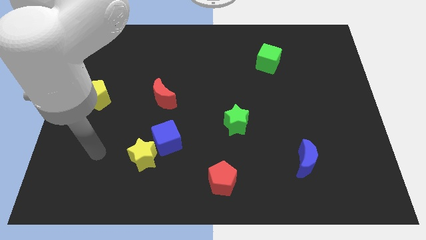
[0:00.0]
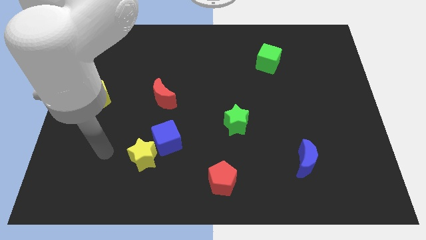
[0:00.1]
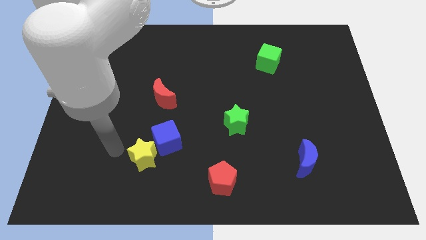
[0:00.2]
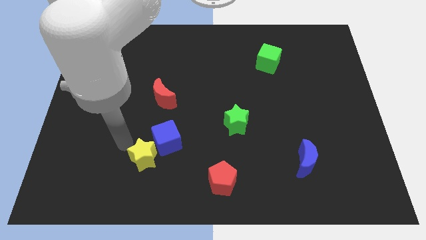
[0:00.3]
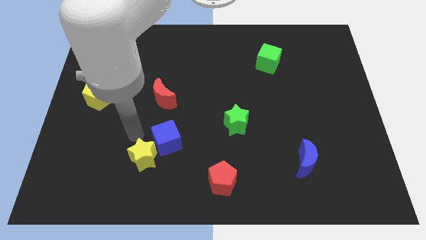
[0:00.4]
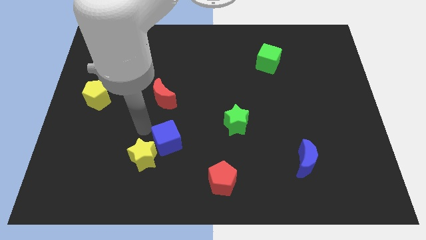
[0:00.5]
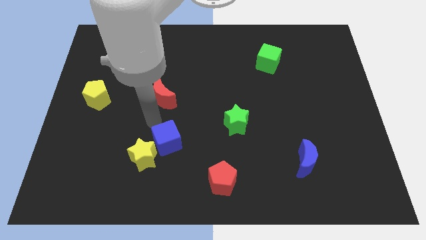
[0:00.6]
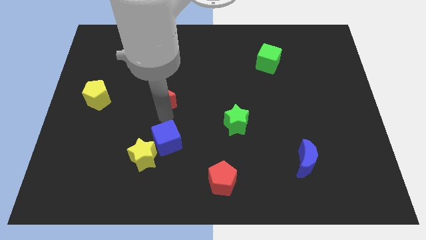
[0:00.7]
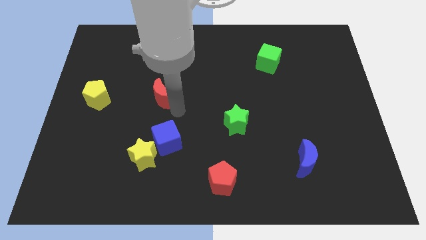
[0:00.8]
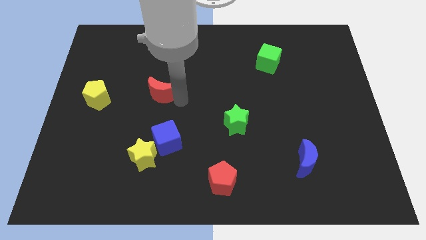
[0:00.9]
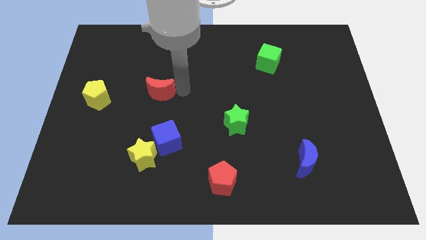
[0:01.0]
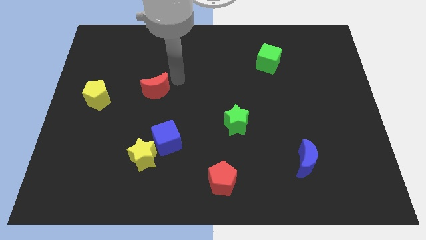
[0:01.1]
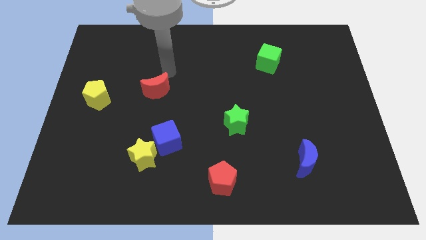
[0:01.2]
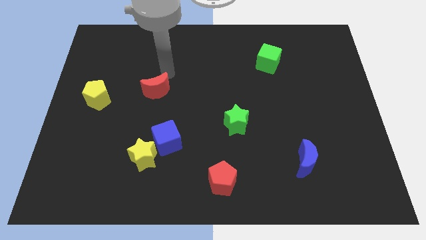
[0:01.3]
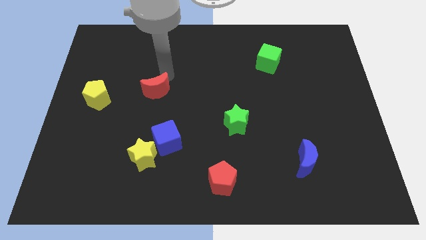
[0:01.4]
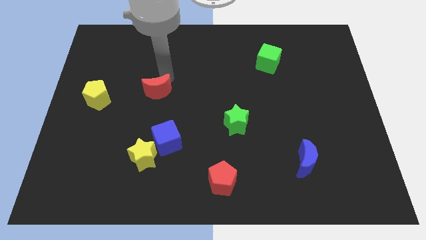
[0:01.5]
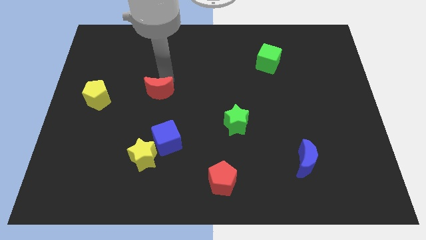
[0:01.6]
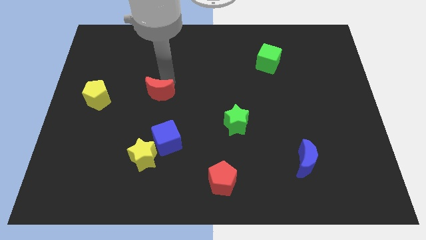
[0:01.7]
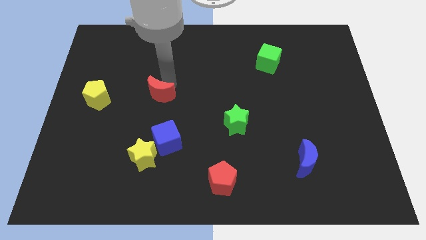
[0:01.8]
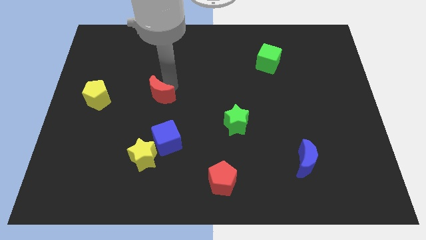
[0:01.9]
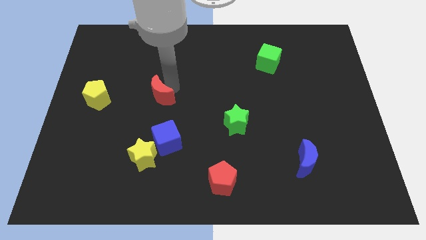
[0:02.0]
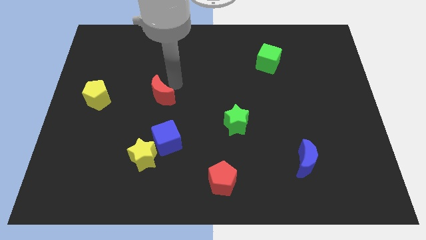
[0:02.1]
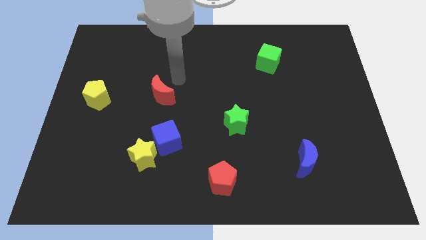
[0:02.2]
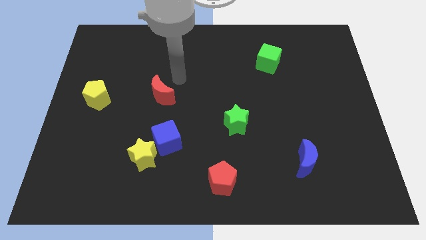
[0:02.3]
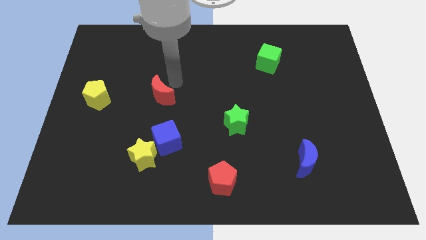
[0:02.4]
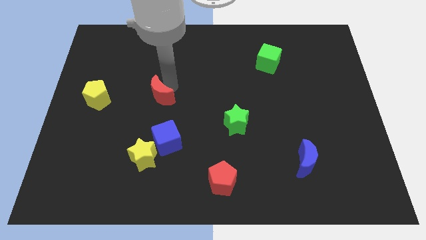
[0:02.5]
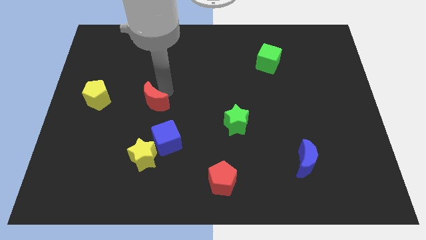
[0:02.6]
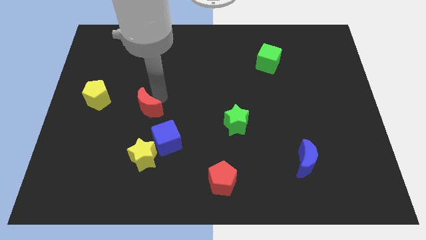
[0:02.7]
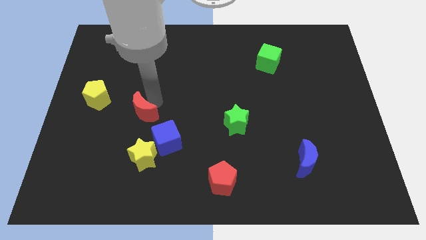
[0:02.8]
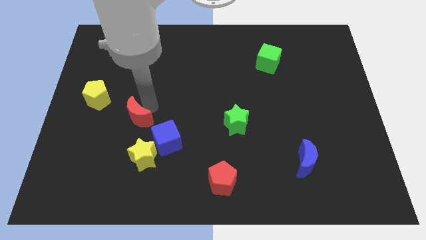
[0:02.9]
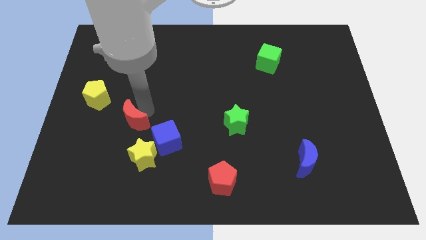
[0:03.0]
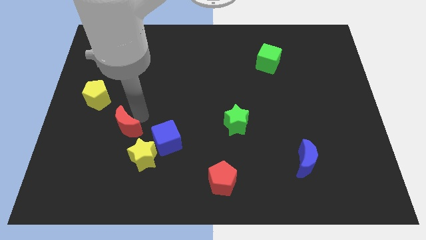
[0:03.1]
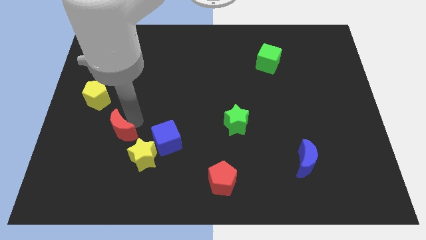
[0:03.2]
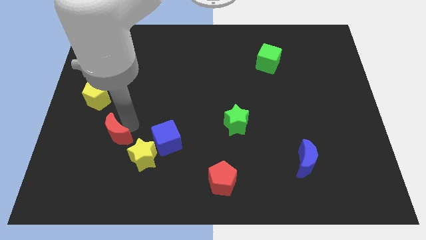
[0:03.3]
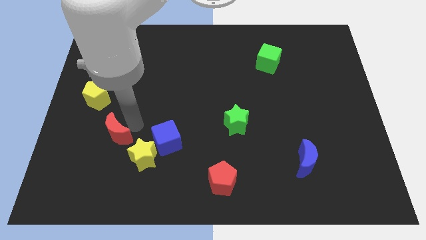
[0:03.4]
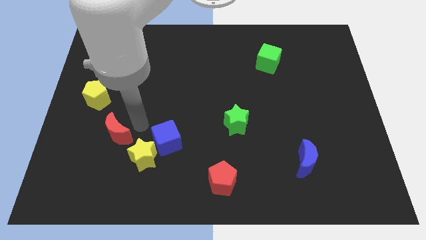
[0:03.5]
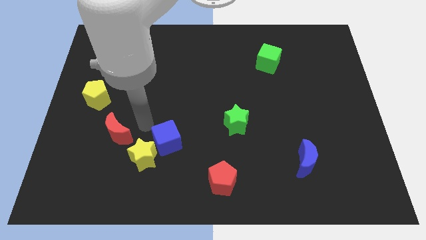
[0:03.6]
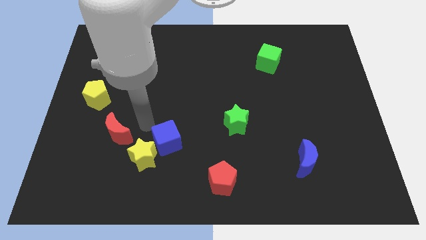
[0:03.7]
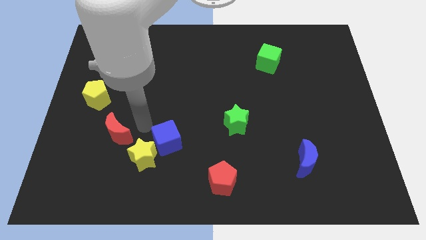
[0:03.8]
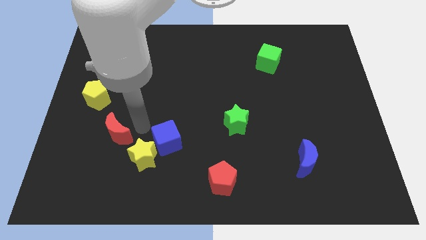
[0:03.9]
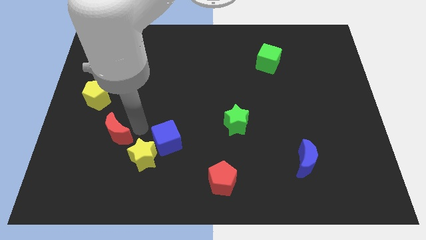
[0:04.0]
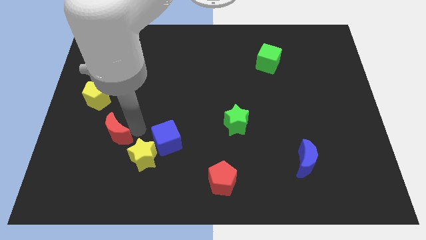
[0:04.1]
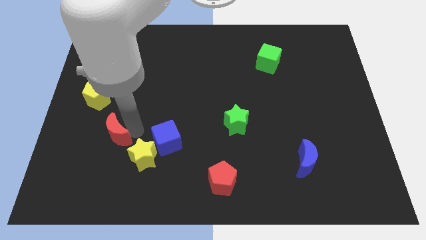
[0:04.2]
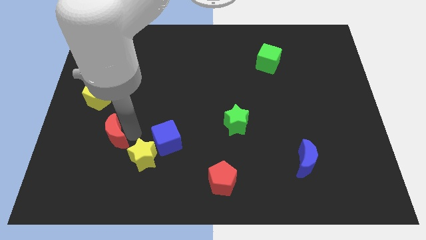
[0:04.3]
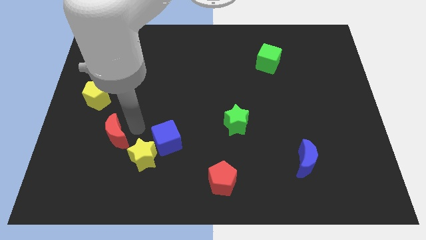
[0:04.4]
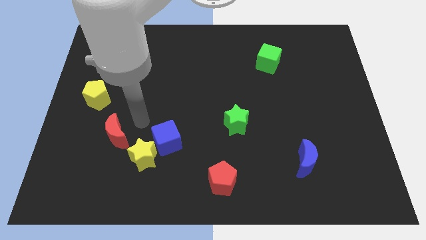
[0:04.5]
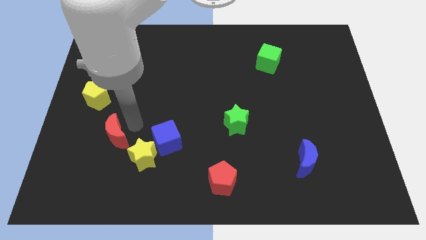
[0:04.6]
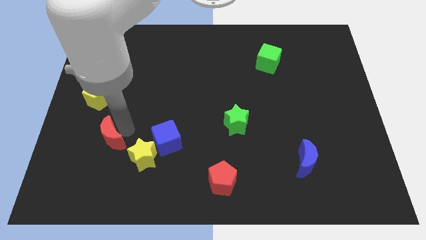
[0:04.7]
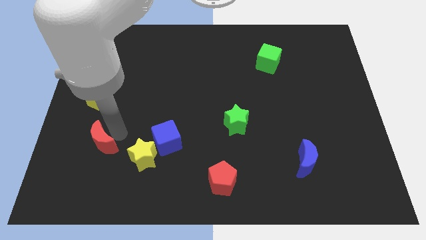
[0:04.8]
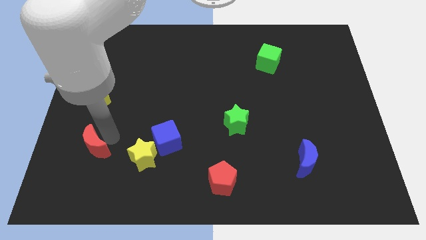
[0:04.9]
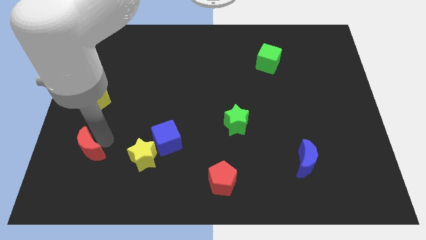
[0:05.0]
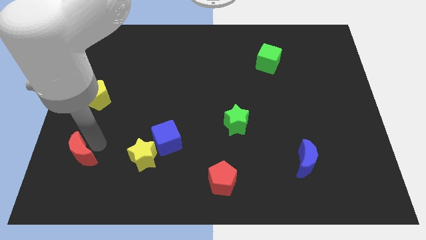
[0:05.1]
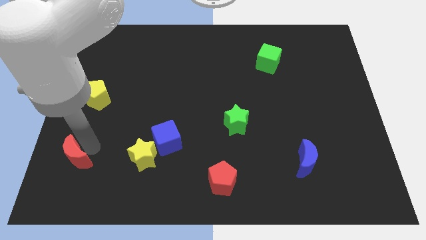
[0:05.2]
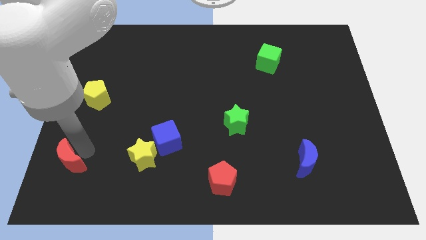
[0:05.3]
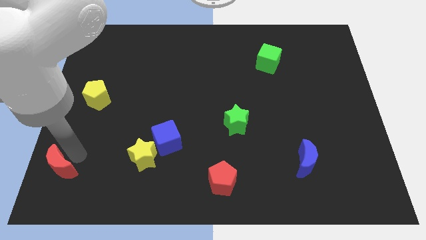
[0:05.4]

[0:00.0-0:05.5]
push the red moon to the bottom left

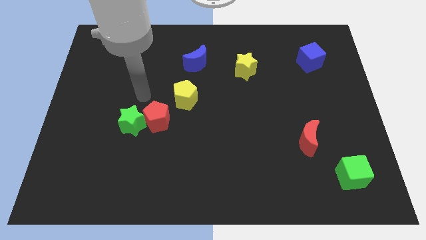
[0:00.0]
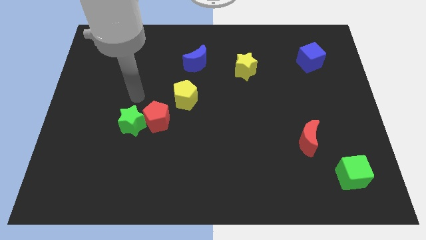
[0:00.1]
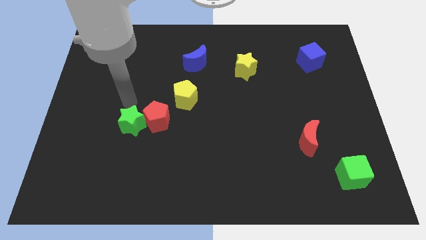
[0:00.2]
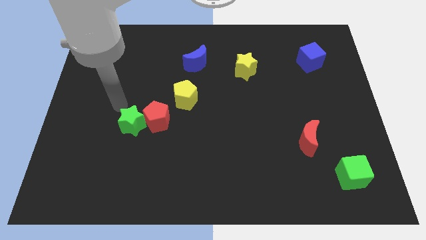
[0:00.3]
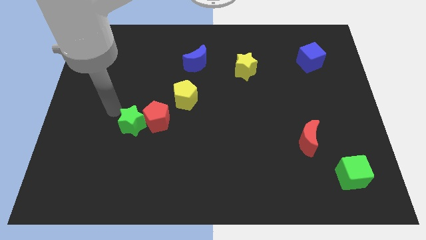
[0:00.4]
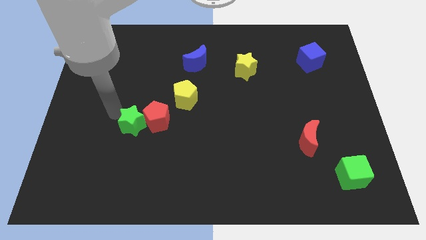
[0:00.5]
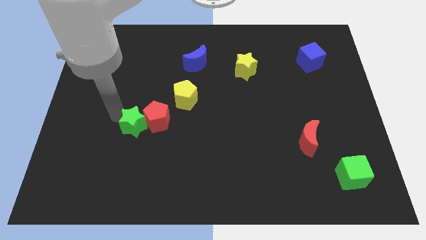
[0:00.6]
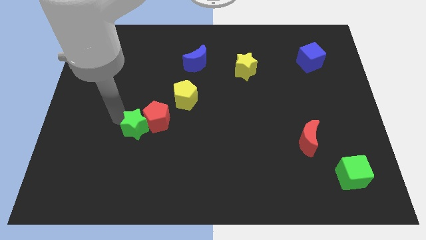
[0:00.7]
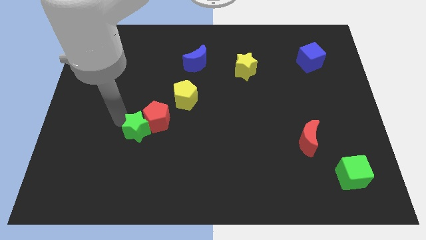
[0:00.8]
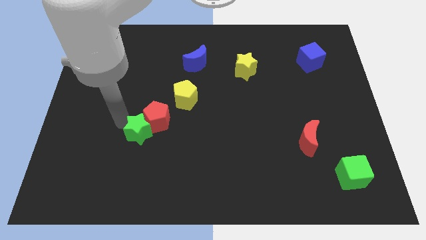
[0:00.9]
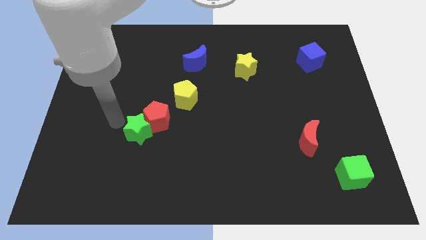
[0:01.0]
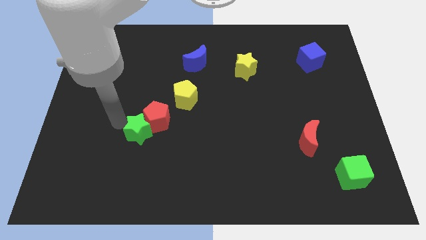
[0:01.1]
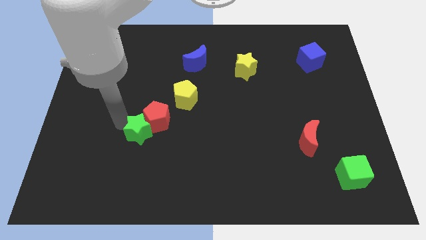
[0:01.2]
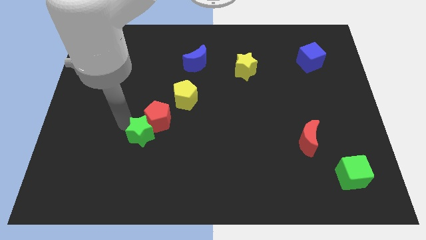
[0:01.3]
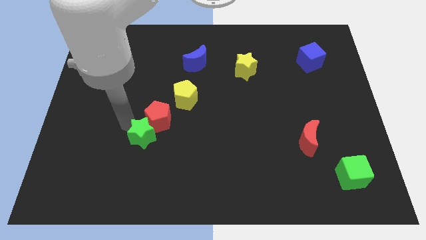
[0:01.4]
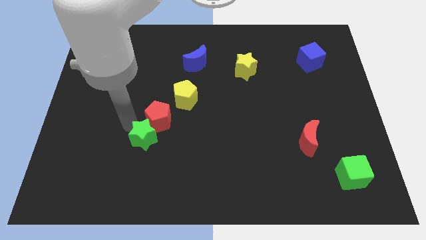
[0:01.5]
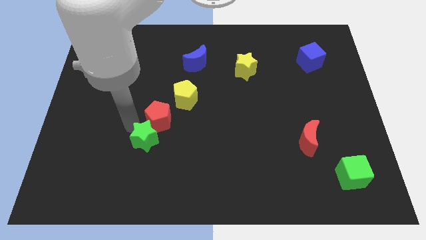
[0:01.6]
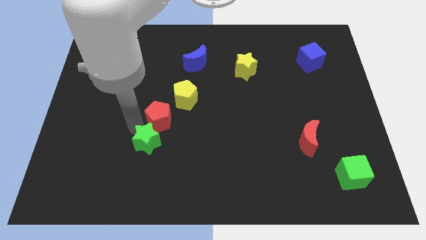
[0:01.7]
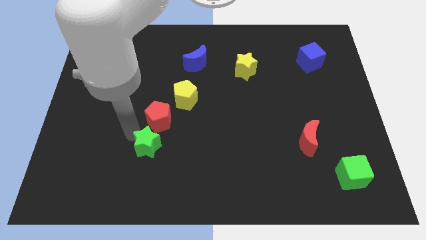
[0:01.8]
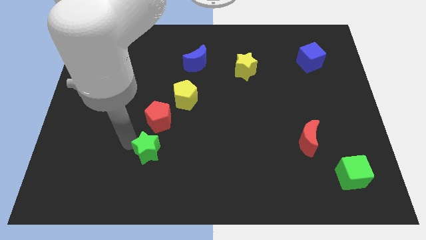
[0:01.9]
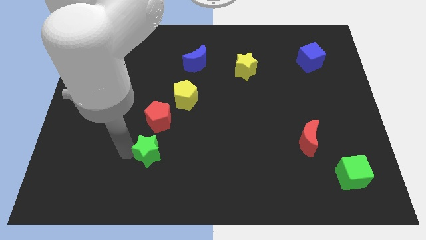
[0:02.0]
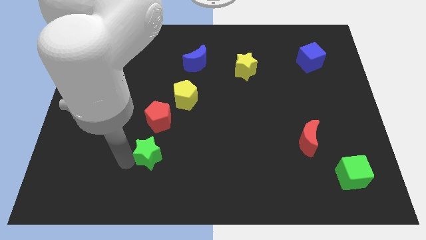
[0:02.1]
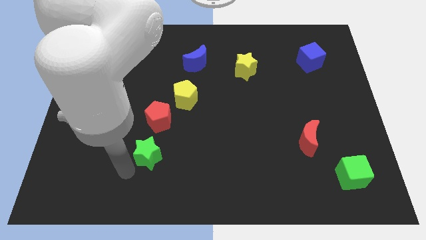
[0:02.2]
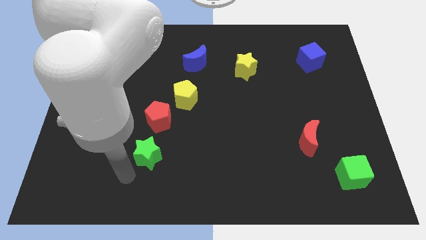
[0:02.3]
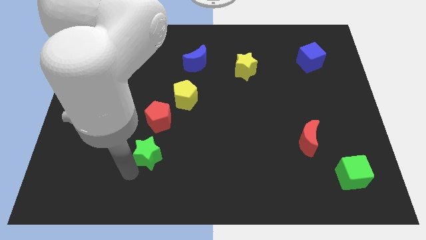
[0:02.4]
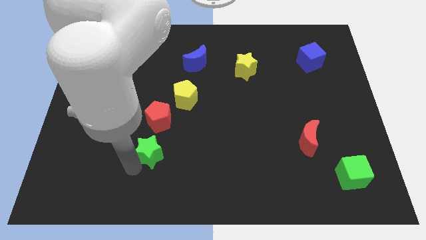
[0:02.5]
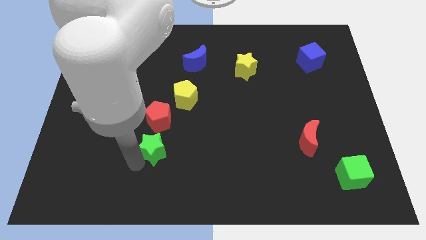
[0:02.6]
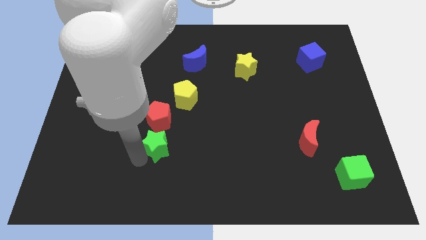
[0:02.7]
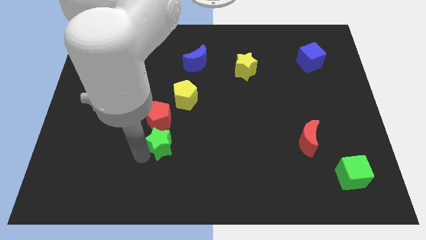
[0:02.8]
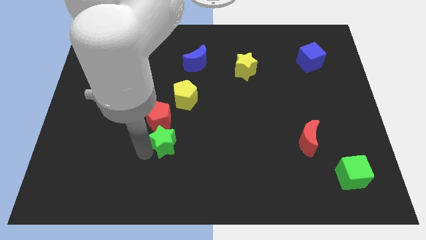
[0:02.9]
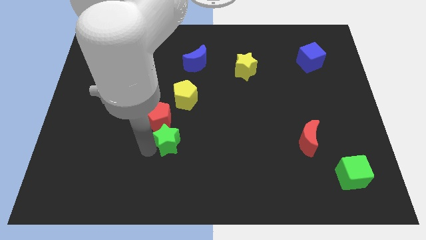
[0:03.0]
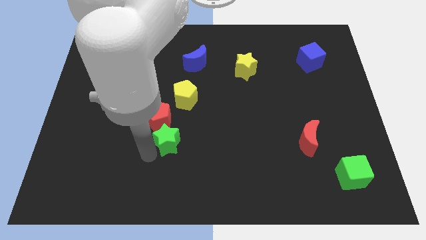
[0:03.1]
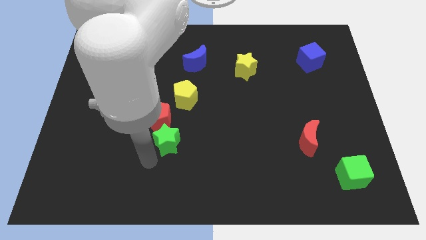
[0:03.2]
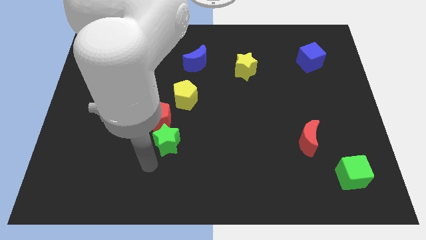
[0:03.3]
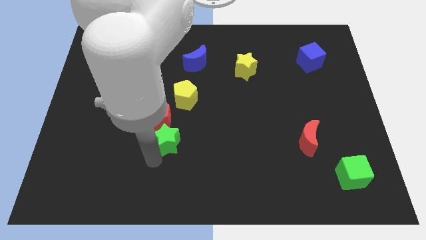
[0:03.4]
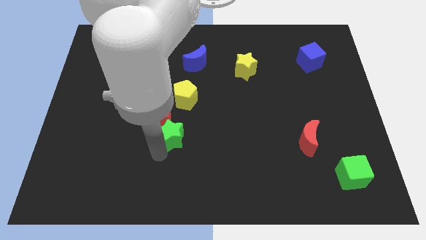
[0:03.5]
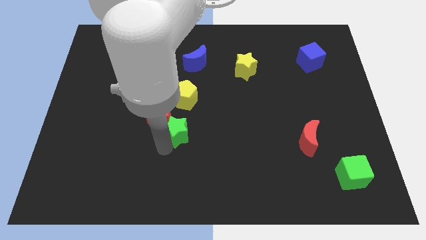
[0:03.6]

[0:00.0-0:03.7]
push the green star to the center of the board
